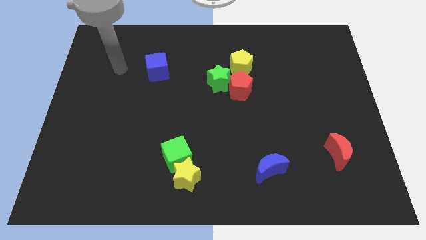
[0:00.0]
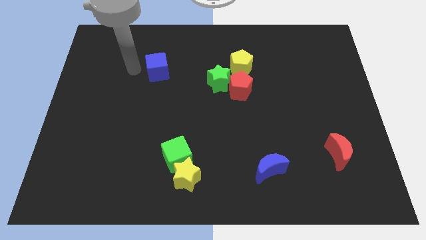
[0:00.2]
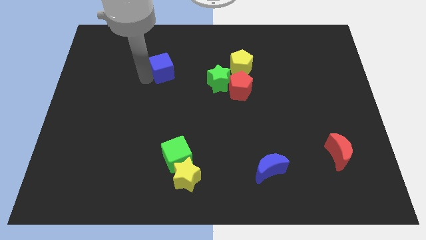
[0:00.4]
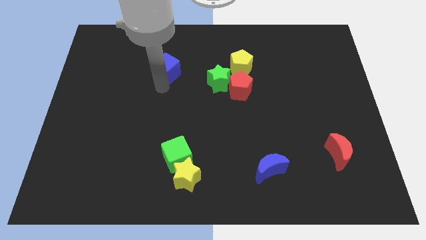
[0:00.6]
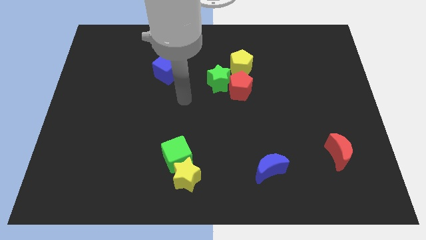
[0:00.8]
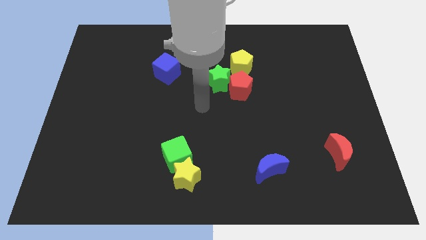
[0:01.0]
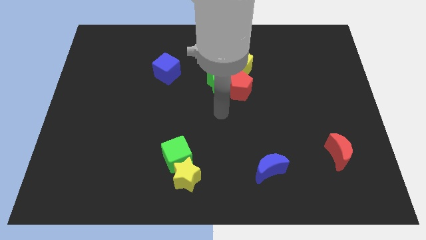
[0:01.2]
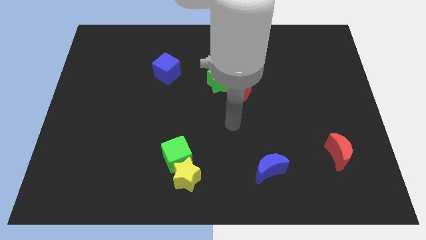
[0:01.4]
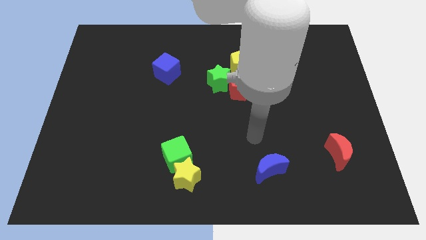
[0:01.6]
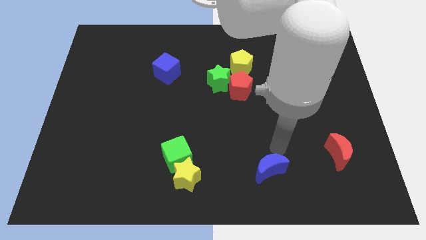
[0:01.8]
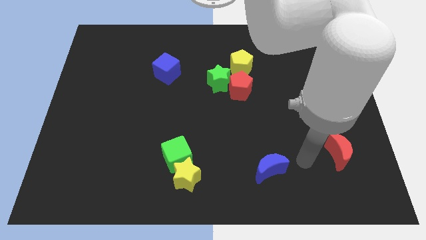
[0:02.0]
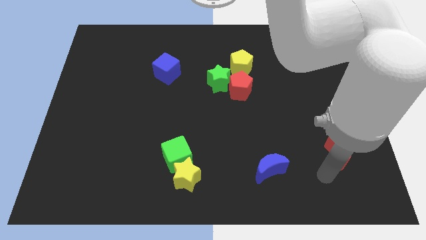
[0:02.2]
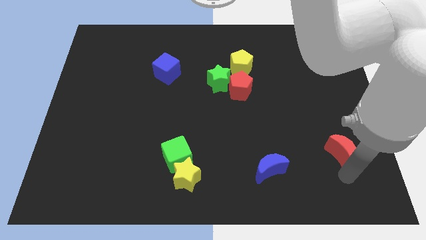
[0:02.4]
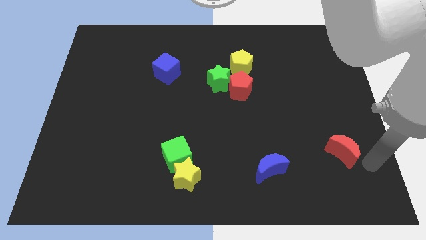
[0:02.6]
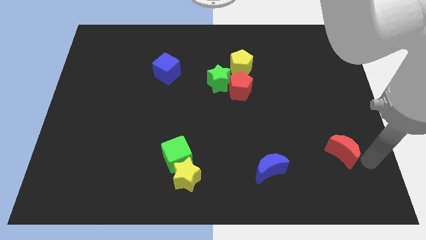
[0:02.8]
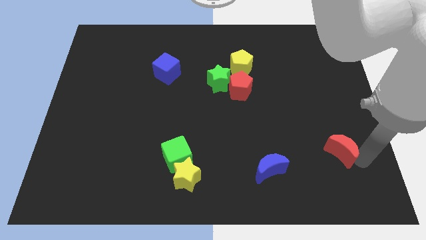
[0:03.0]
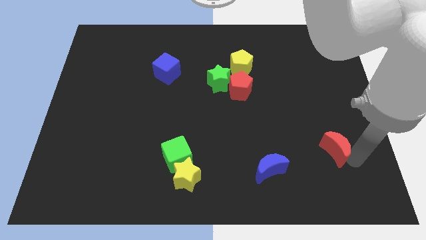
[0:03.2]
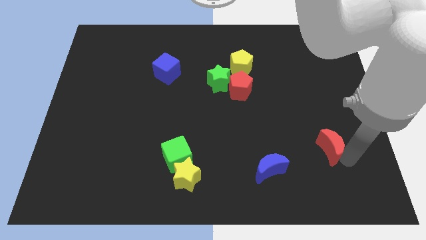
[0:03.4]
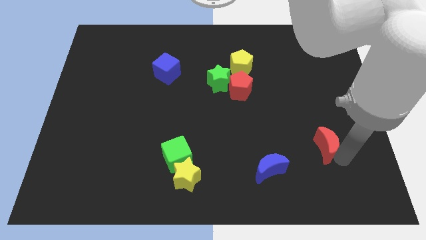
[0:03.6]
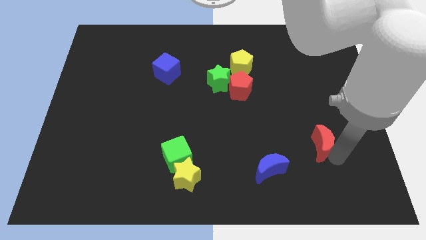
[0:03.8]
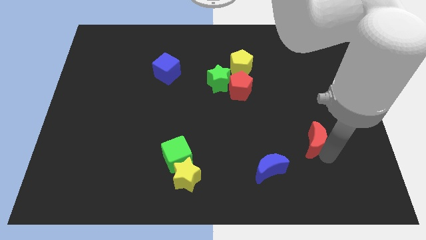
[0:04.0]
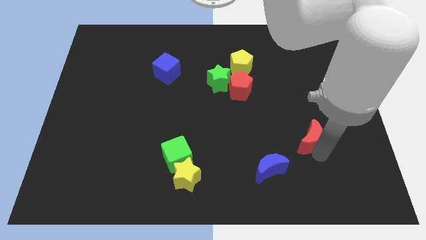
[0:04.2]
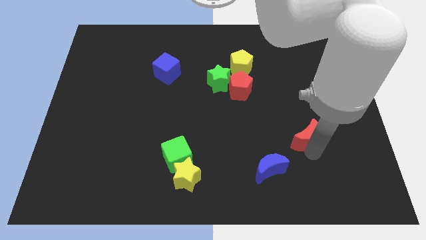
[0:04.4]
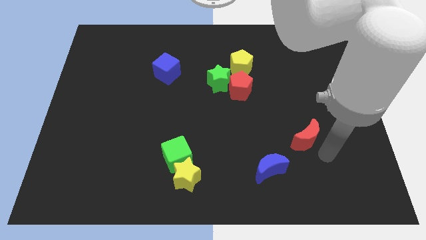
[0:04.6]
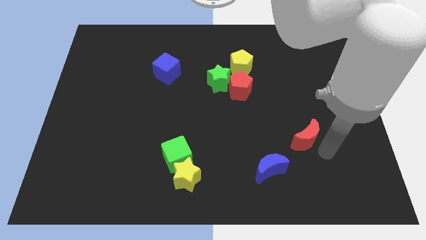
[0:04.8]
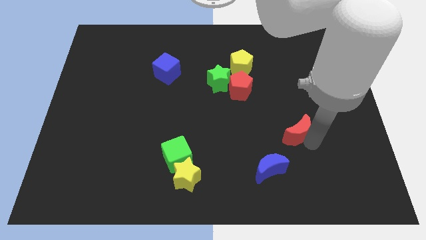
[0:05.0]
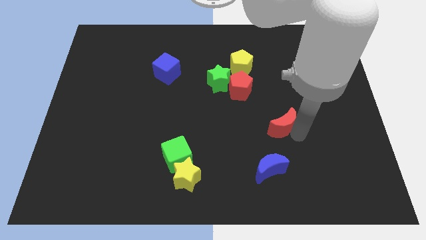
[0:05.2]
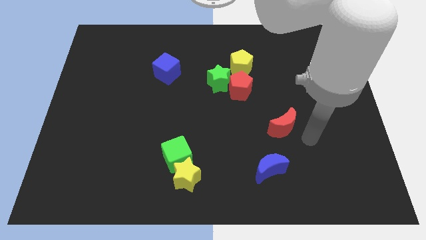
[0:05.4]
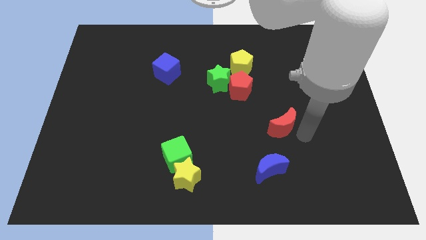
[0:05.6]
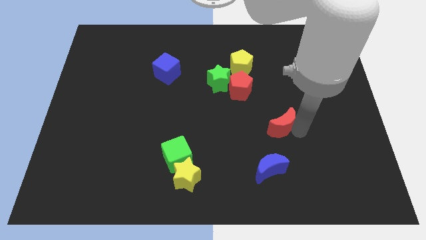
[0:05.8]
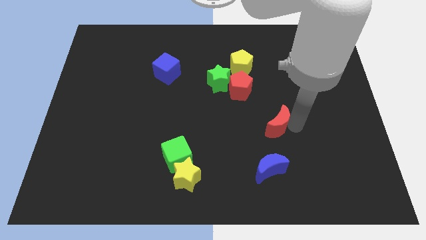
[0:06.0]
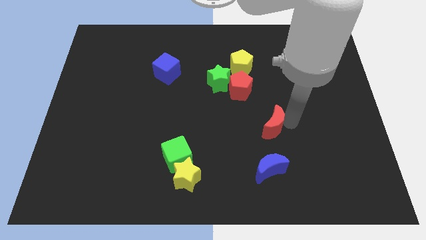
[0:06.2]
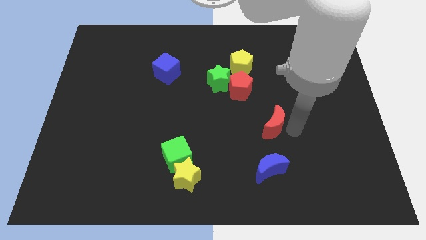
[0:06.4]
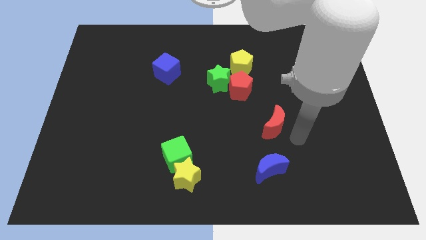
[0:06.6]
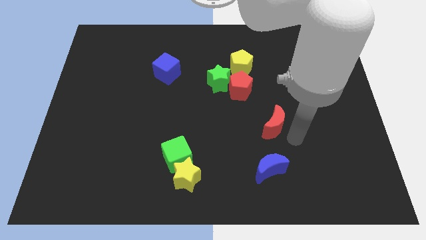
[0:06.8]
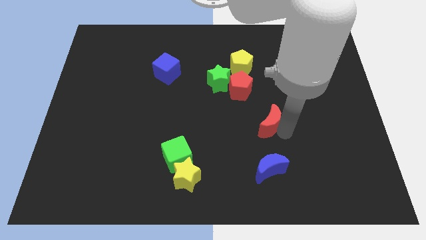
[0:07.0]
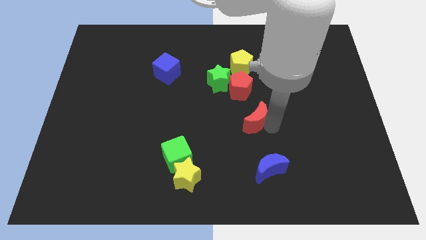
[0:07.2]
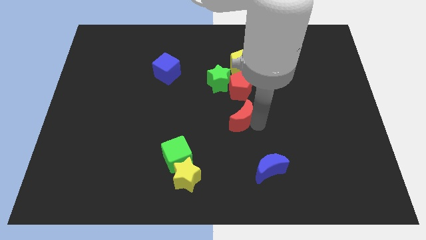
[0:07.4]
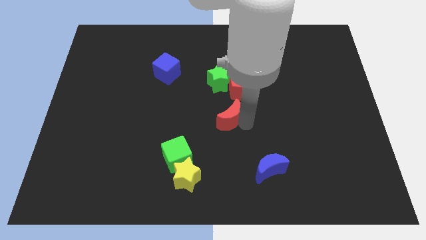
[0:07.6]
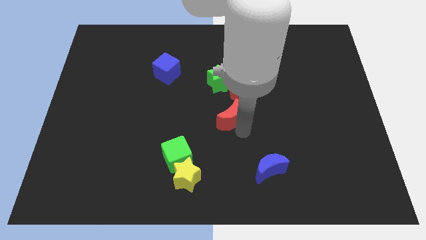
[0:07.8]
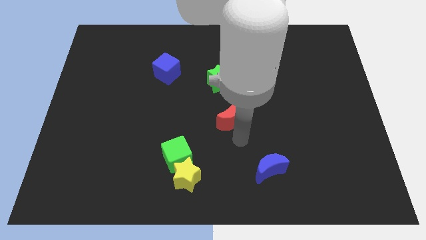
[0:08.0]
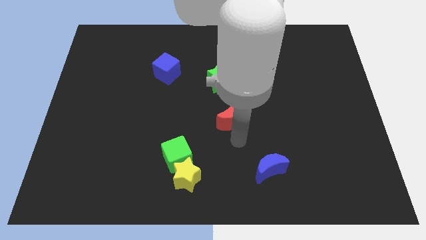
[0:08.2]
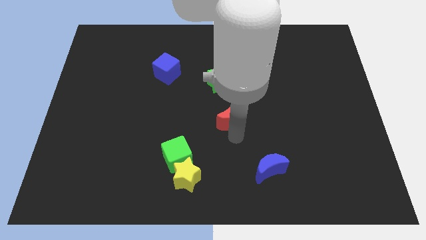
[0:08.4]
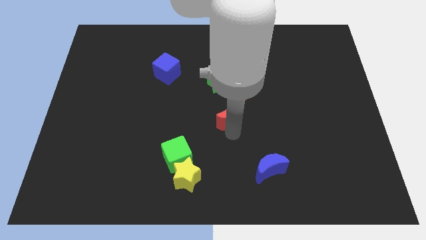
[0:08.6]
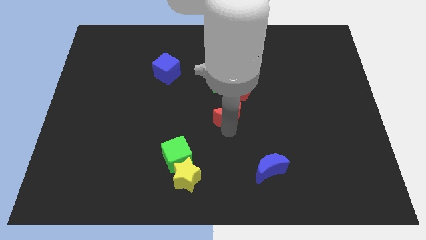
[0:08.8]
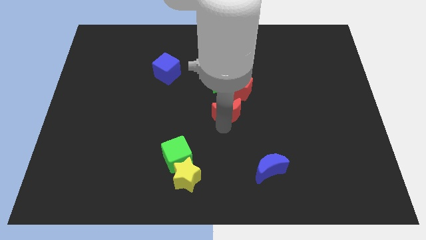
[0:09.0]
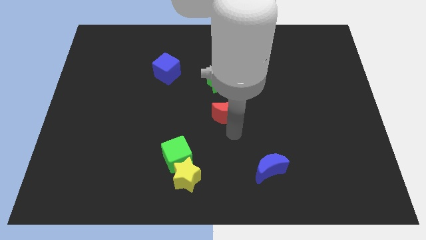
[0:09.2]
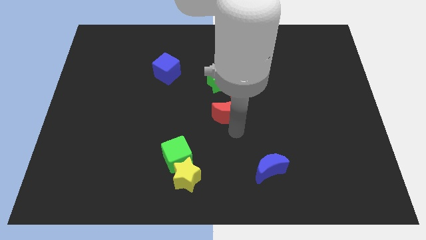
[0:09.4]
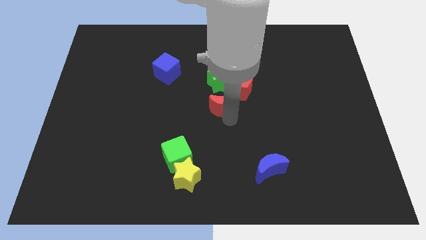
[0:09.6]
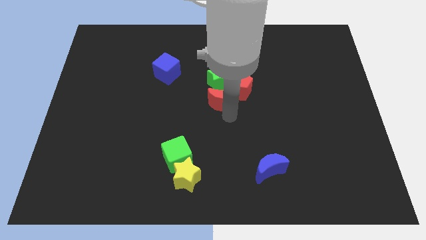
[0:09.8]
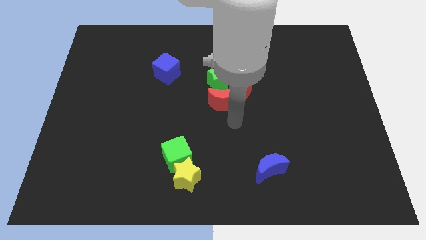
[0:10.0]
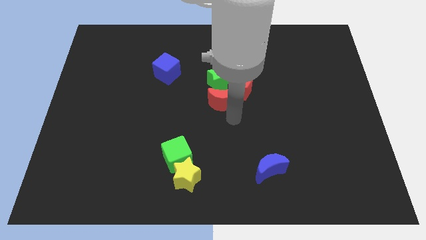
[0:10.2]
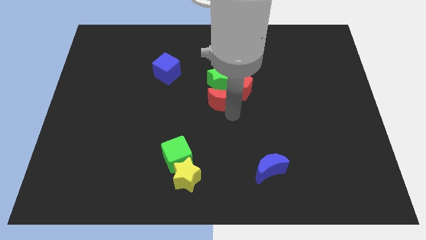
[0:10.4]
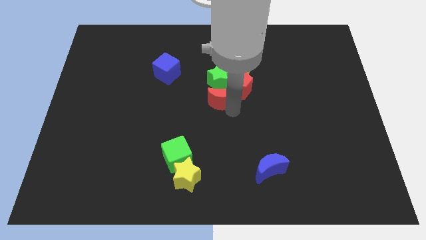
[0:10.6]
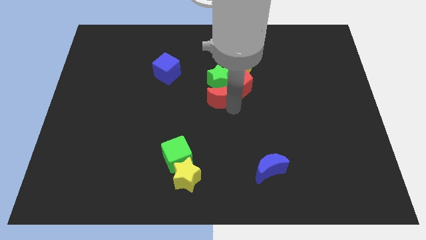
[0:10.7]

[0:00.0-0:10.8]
move the red moon next to the green star

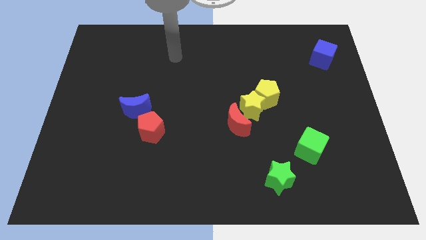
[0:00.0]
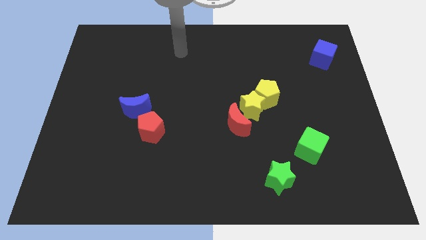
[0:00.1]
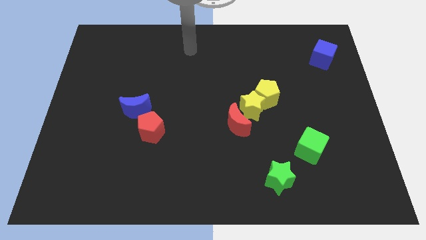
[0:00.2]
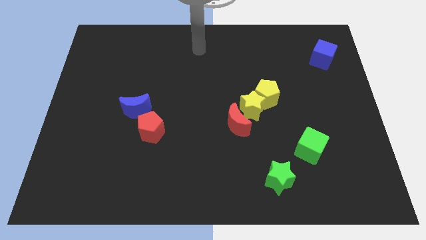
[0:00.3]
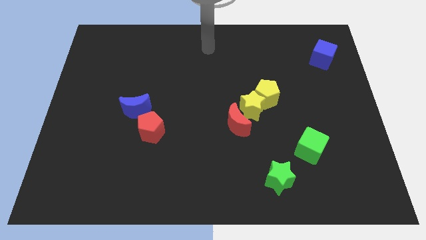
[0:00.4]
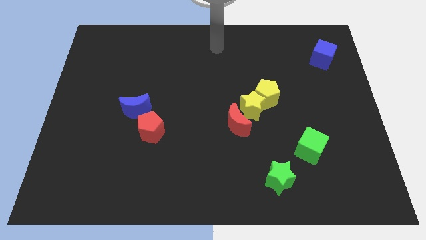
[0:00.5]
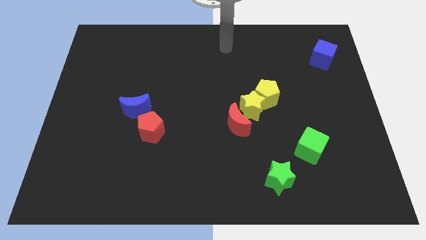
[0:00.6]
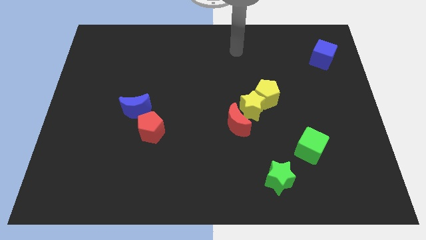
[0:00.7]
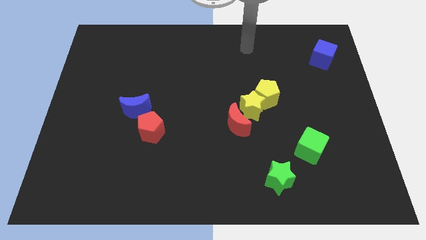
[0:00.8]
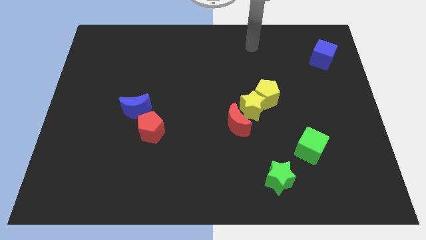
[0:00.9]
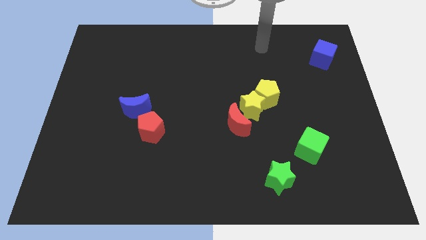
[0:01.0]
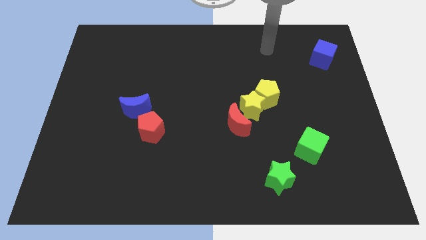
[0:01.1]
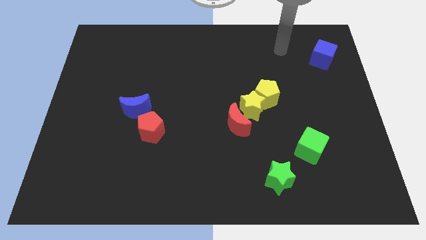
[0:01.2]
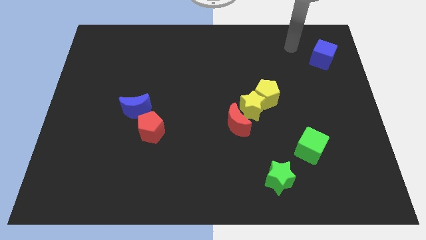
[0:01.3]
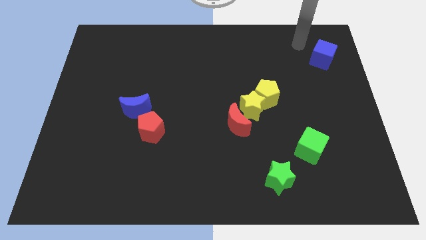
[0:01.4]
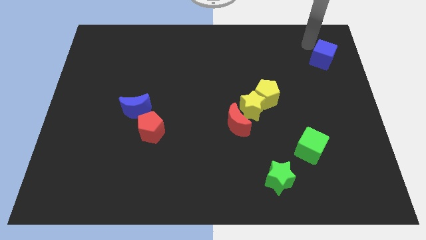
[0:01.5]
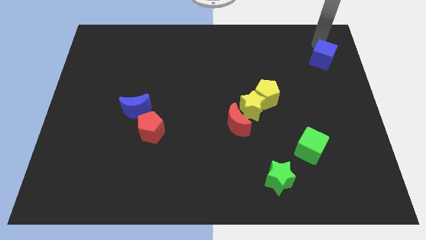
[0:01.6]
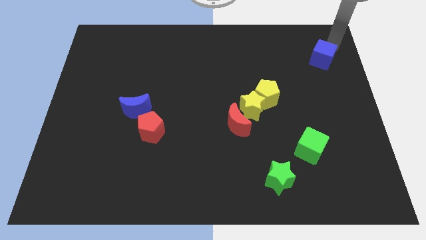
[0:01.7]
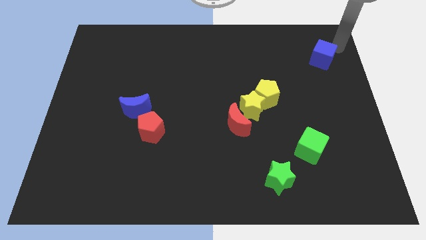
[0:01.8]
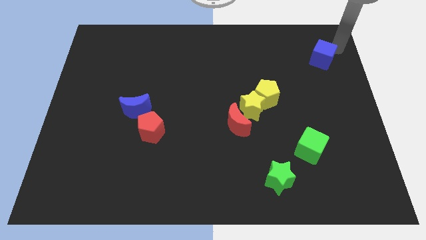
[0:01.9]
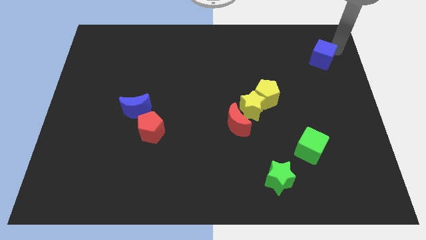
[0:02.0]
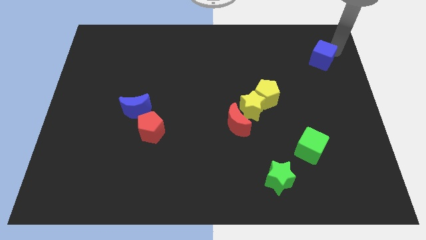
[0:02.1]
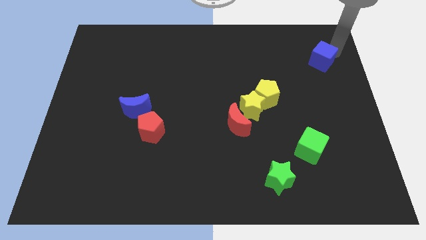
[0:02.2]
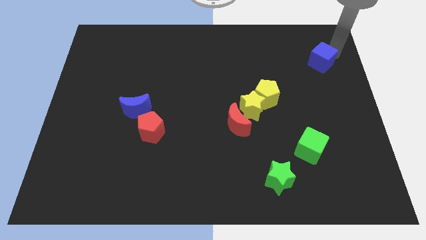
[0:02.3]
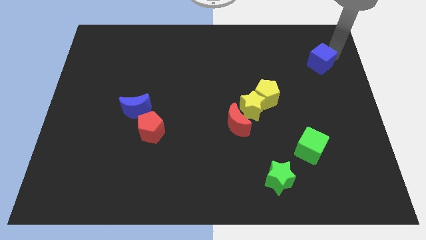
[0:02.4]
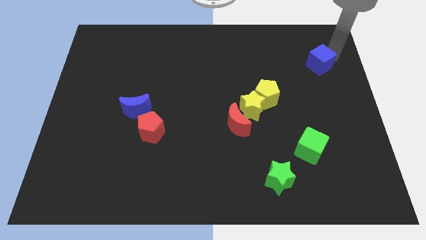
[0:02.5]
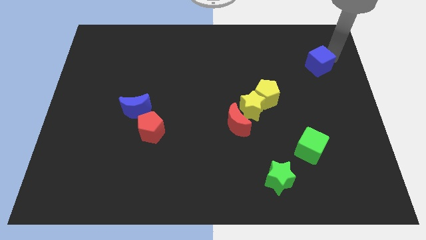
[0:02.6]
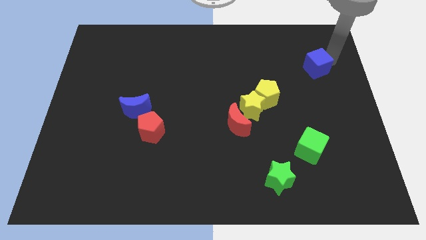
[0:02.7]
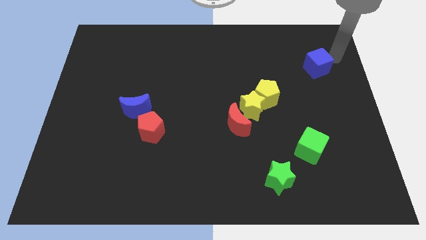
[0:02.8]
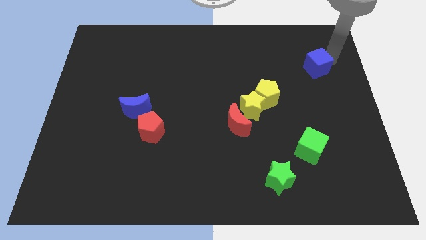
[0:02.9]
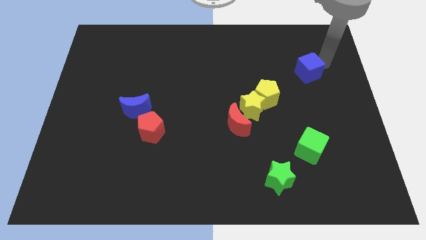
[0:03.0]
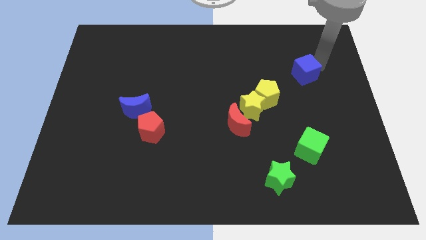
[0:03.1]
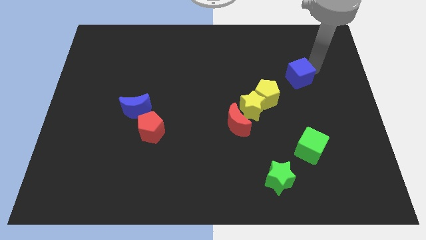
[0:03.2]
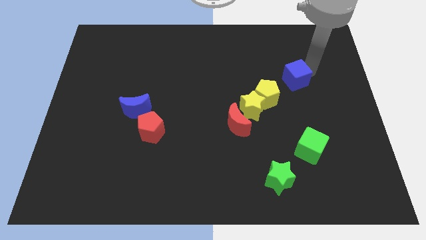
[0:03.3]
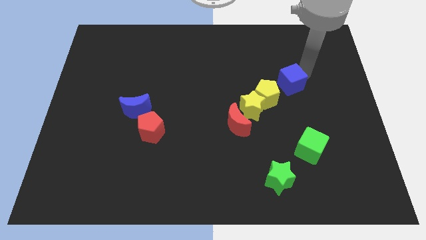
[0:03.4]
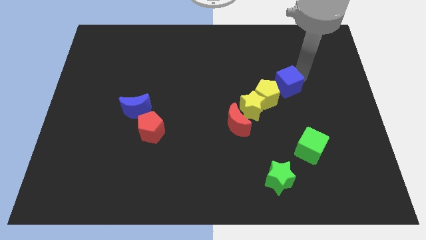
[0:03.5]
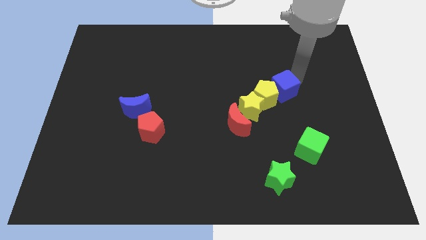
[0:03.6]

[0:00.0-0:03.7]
put the blue cube close to the yellow pentagon
